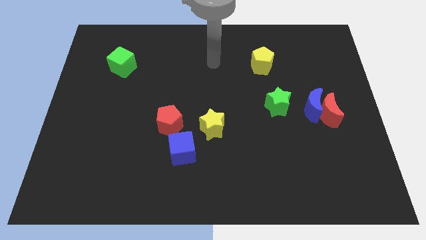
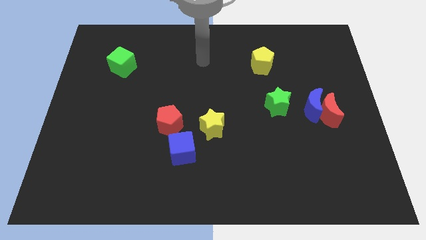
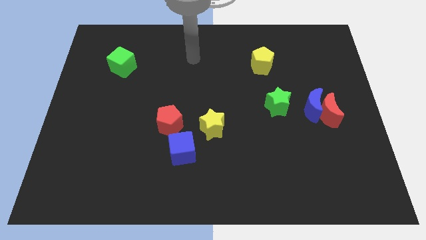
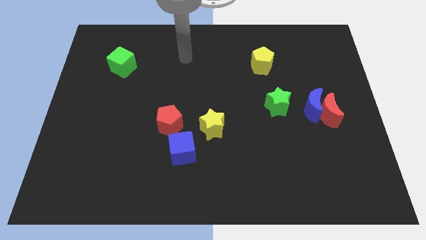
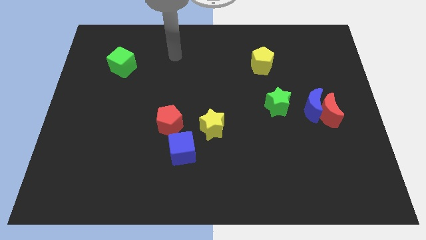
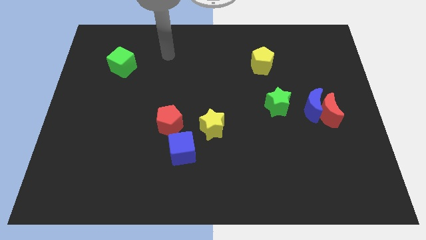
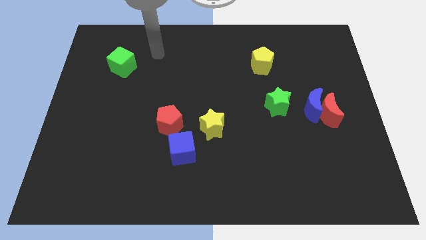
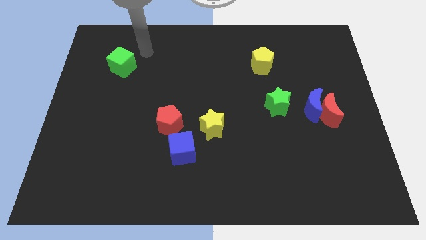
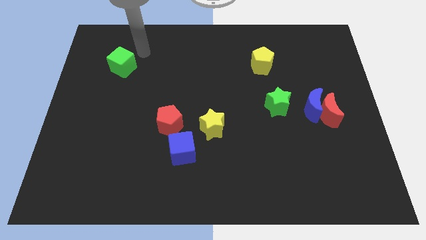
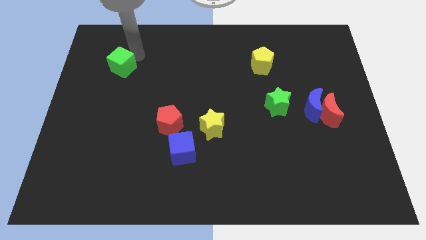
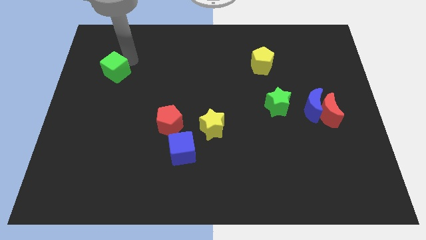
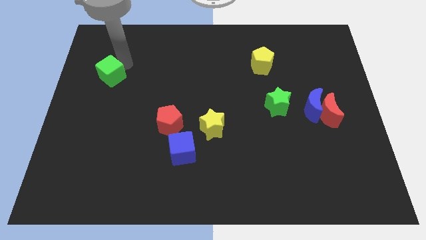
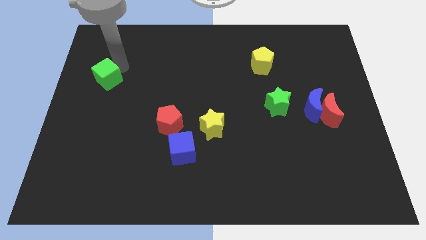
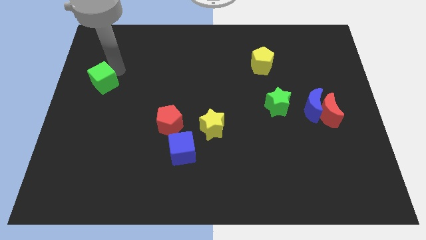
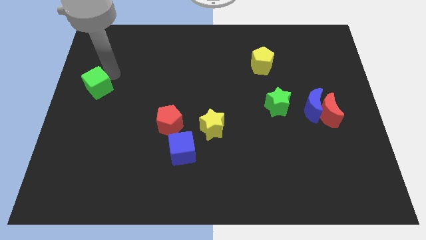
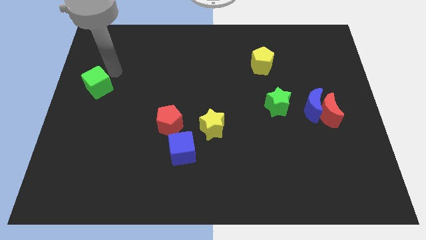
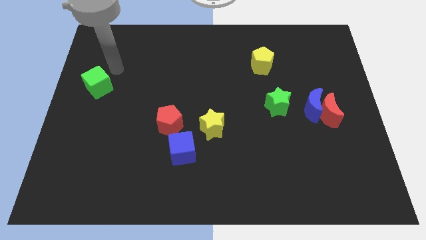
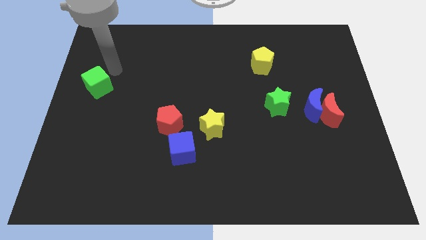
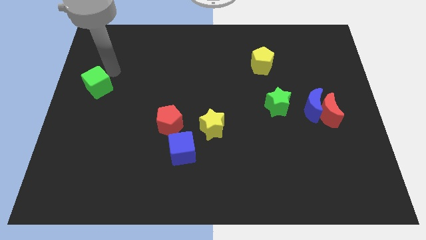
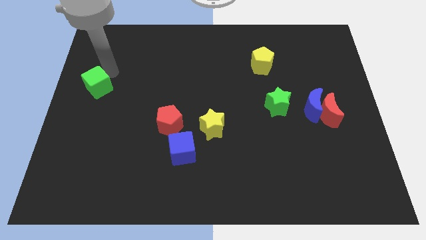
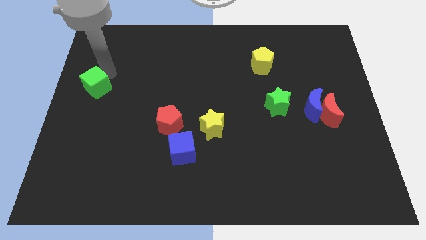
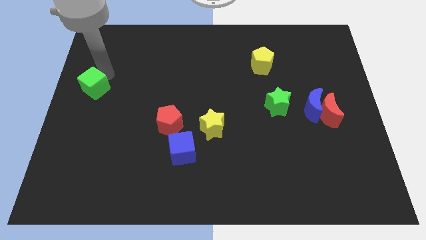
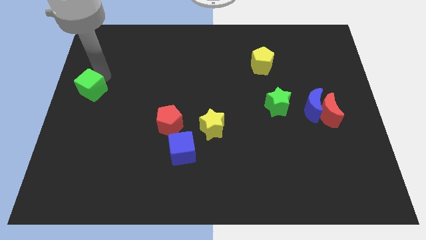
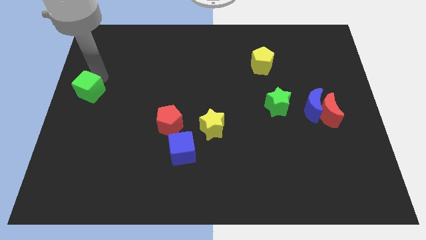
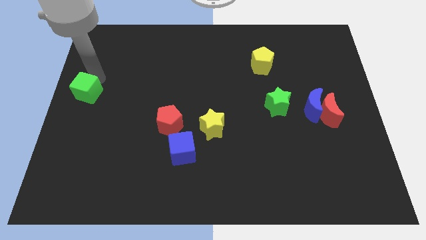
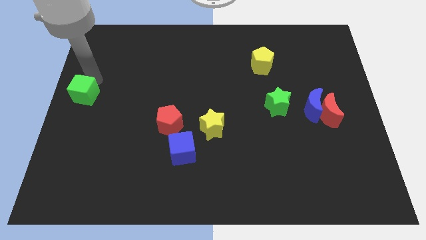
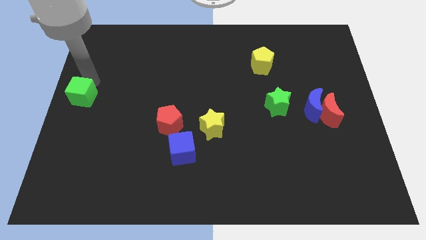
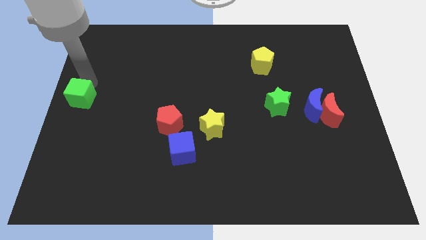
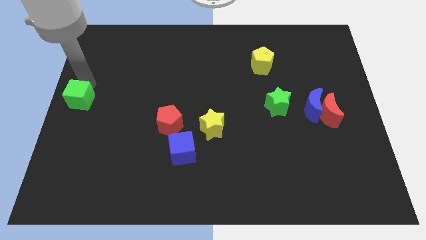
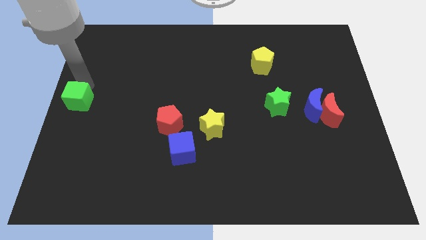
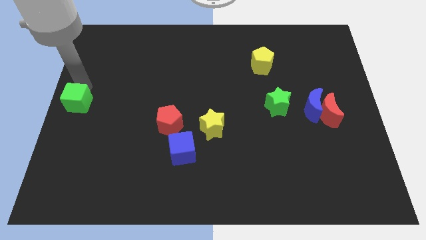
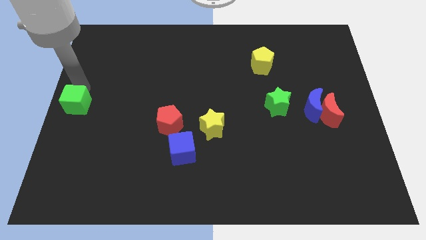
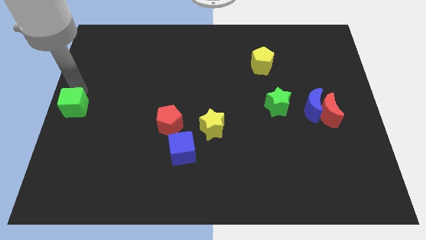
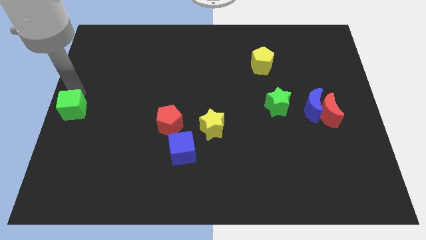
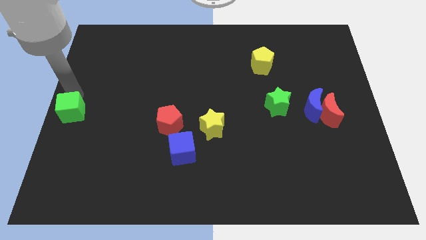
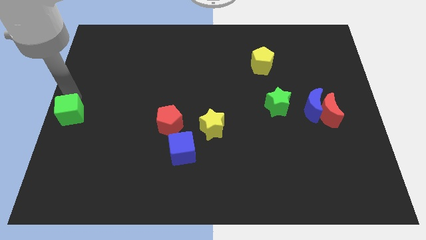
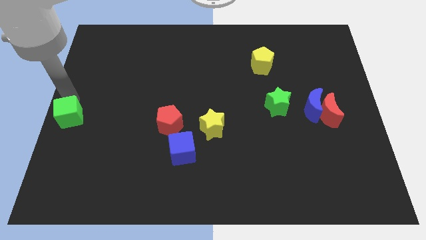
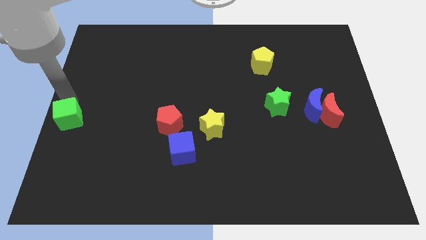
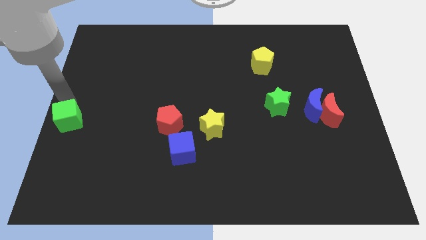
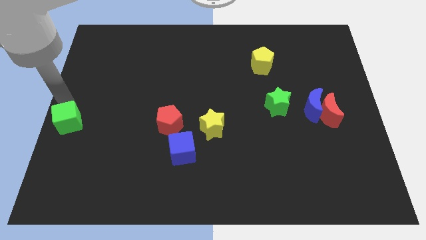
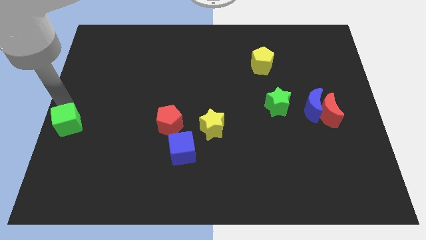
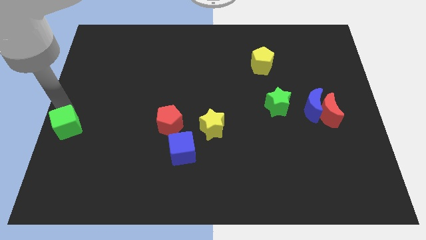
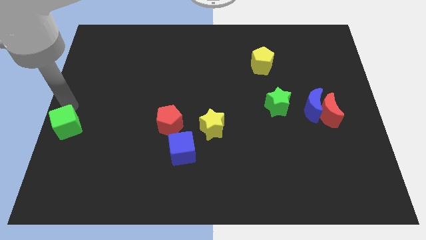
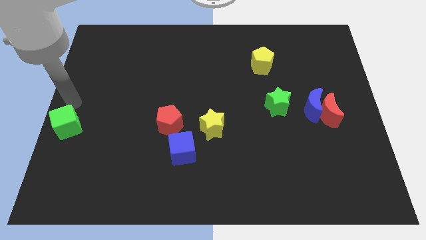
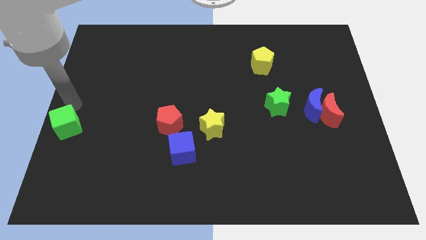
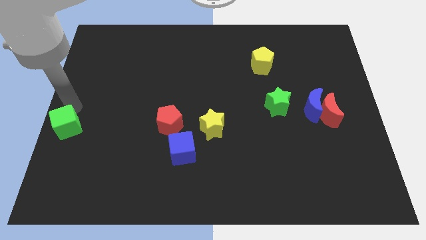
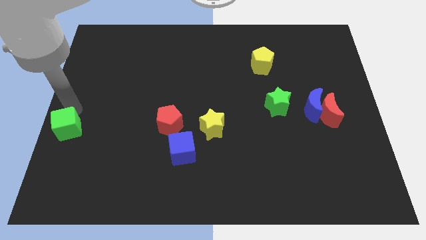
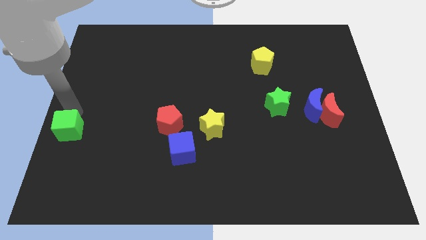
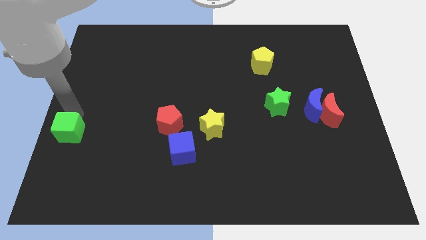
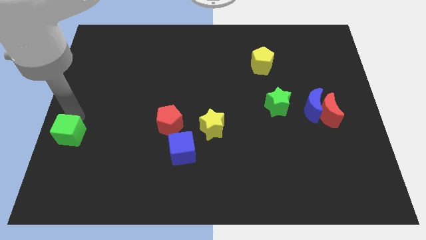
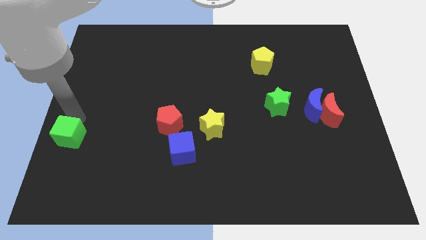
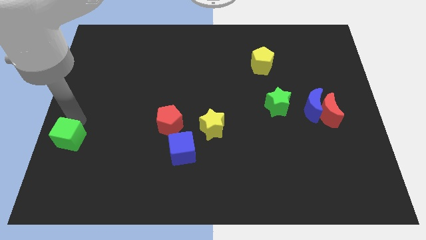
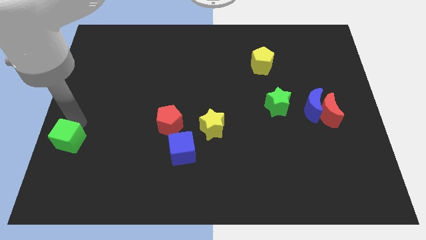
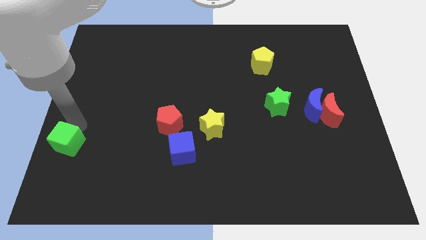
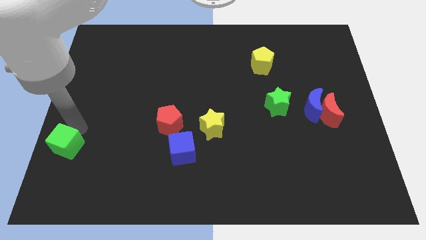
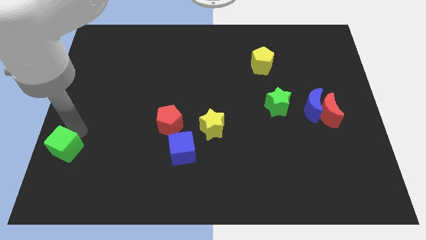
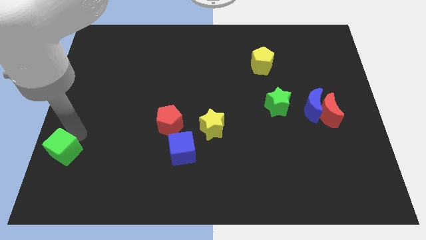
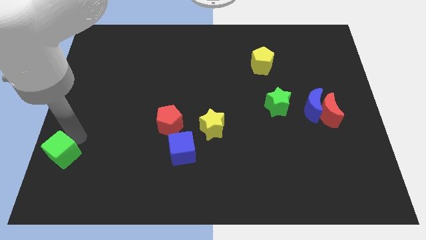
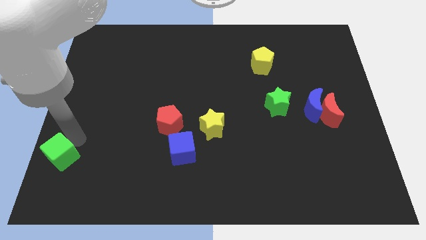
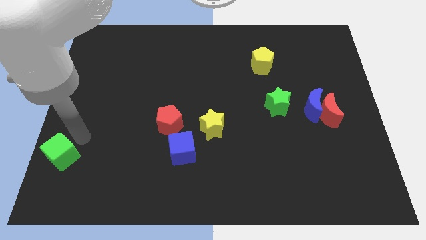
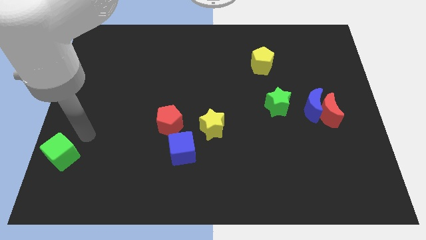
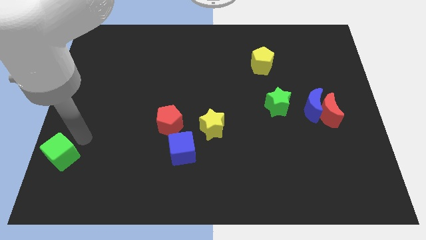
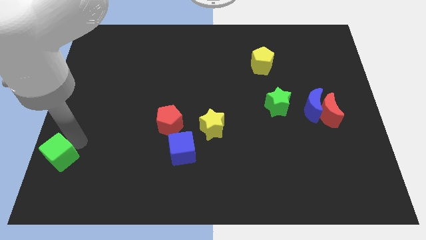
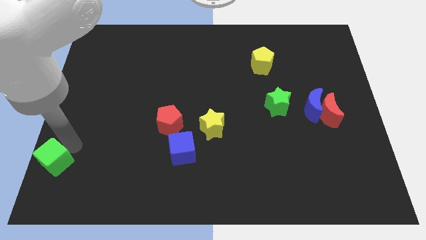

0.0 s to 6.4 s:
push the green cube to the bottom left corner
